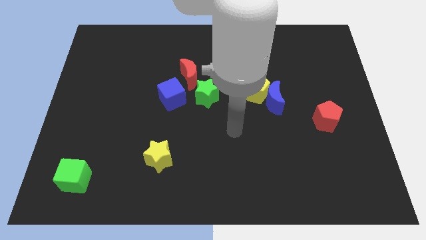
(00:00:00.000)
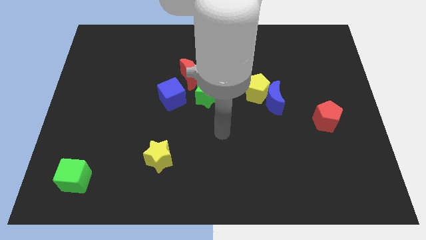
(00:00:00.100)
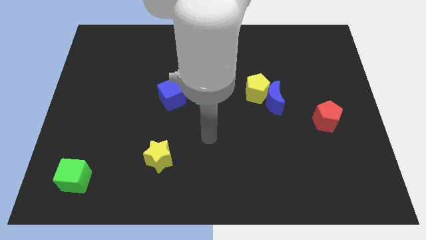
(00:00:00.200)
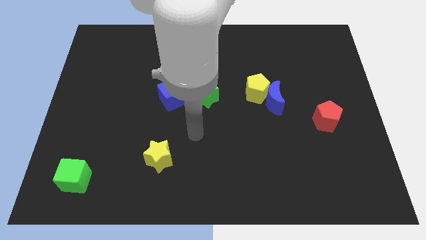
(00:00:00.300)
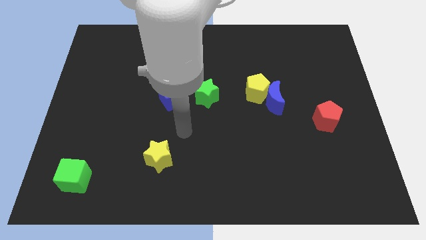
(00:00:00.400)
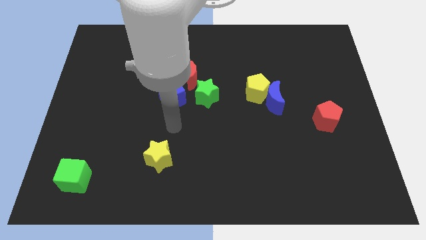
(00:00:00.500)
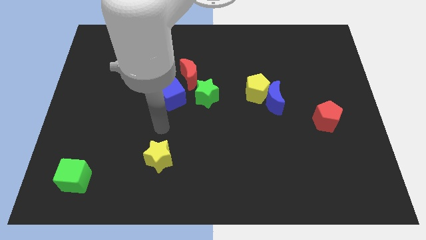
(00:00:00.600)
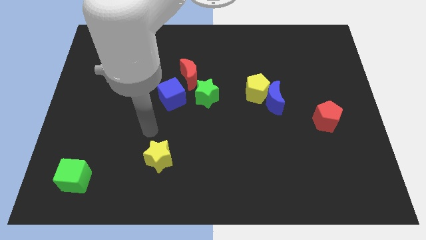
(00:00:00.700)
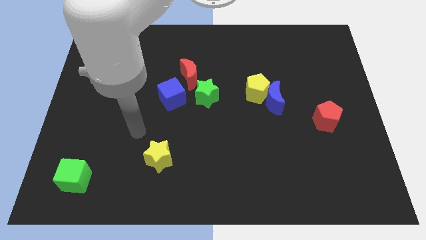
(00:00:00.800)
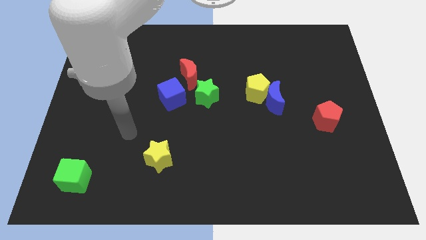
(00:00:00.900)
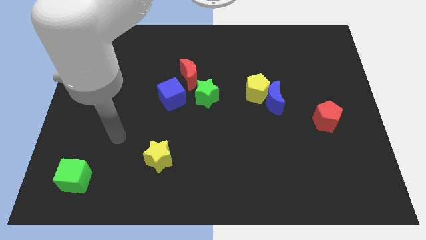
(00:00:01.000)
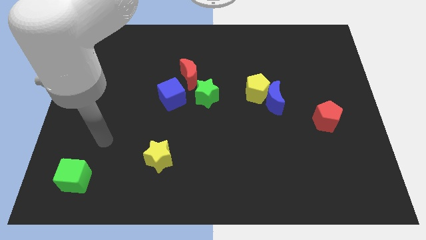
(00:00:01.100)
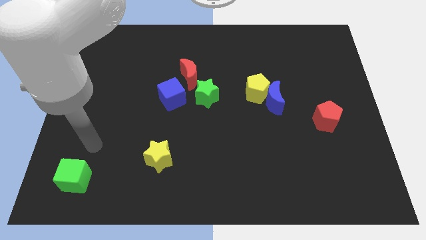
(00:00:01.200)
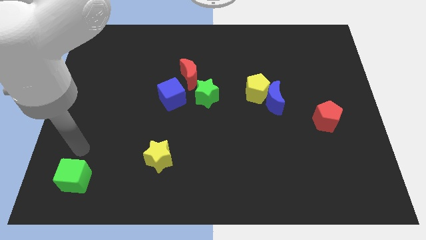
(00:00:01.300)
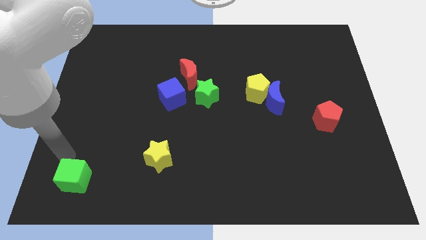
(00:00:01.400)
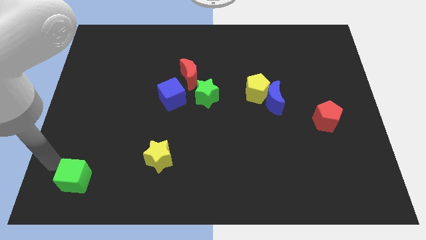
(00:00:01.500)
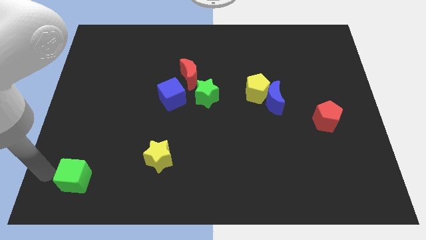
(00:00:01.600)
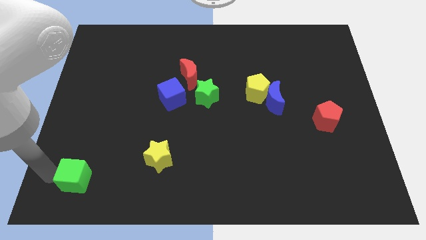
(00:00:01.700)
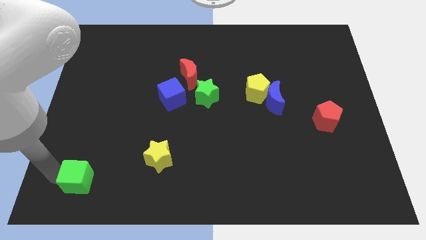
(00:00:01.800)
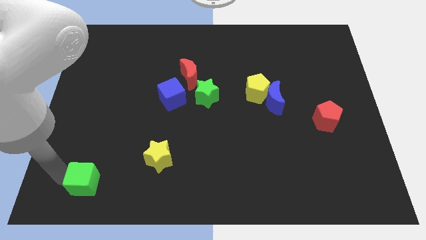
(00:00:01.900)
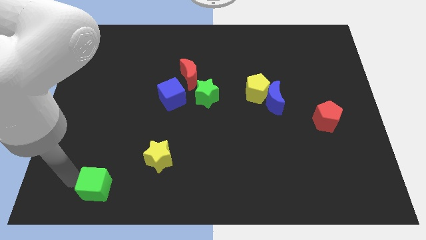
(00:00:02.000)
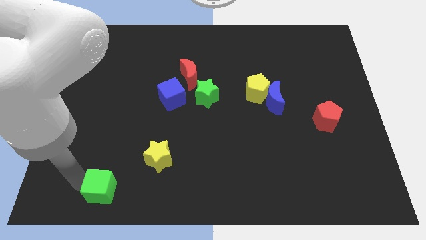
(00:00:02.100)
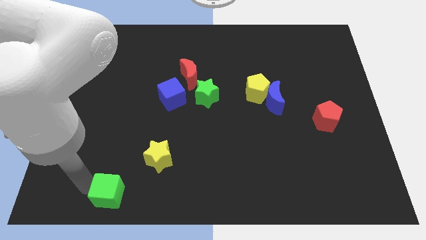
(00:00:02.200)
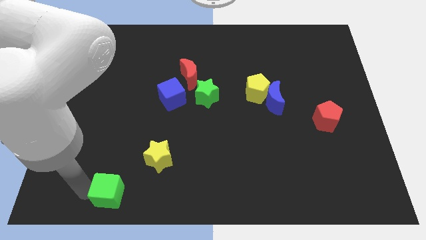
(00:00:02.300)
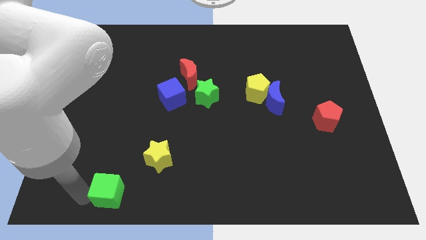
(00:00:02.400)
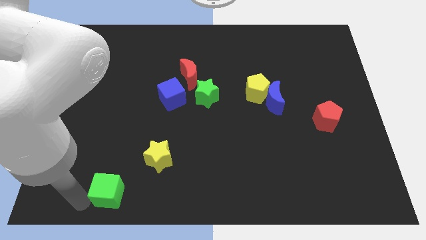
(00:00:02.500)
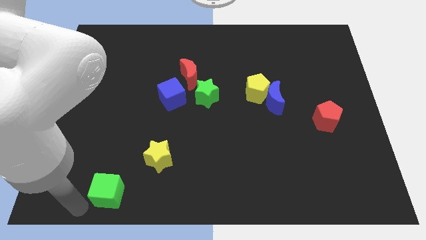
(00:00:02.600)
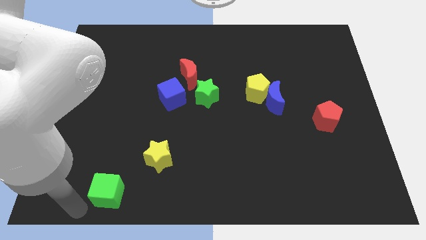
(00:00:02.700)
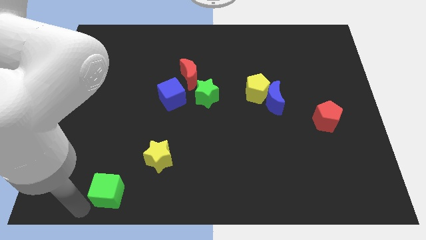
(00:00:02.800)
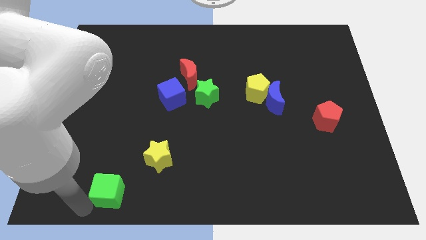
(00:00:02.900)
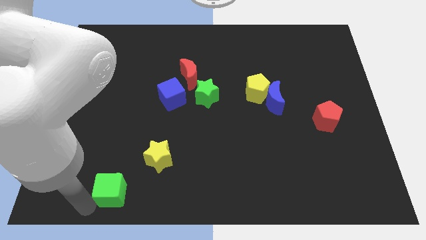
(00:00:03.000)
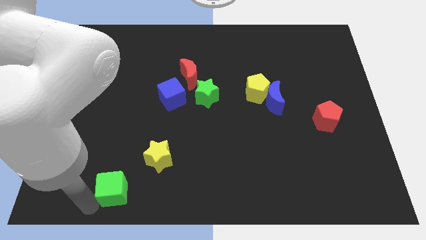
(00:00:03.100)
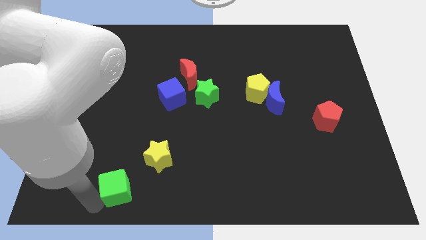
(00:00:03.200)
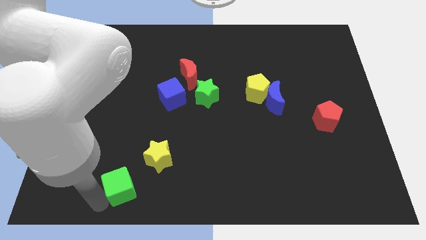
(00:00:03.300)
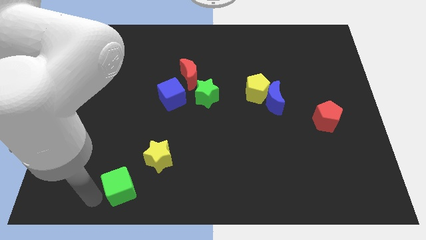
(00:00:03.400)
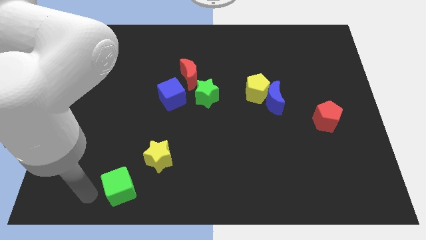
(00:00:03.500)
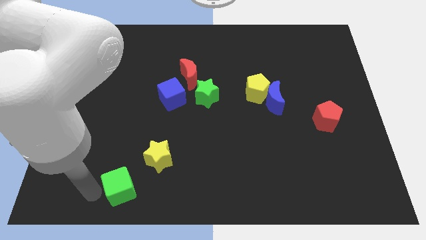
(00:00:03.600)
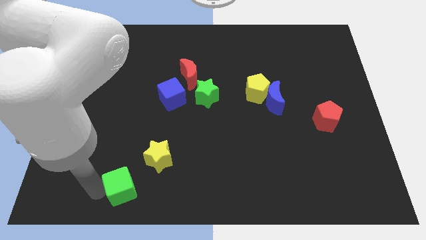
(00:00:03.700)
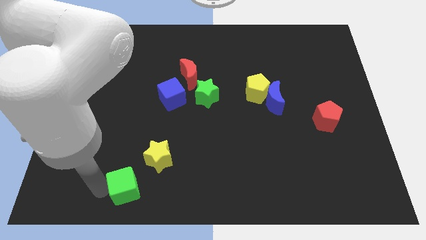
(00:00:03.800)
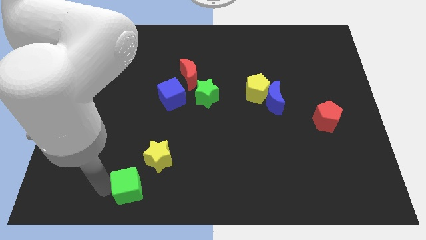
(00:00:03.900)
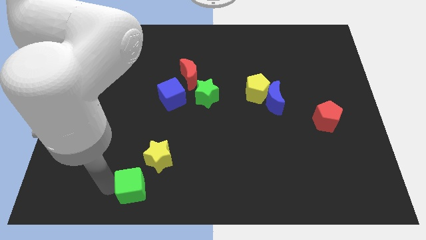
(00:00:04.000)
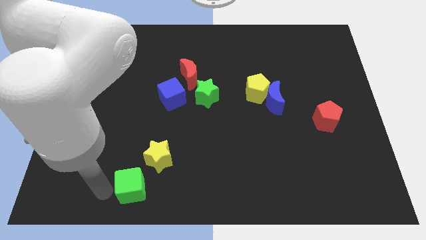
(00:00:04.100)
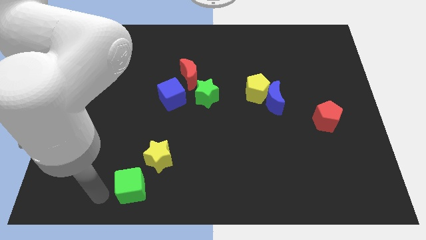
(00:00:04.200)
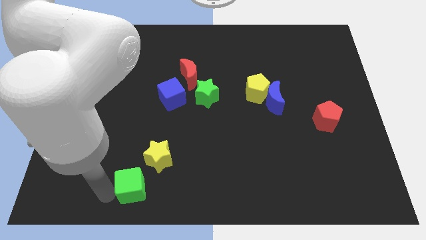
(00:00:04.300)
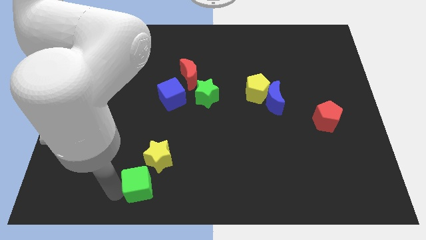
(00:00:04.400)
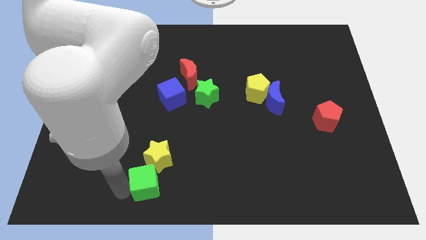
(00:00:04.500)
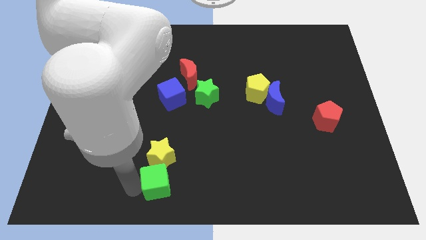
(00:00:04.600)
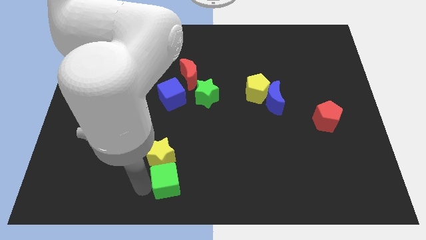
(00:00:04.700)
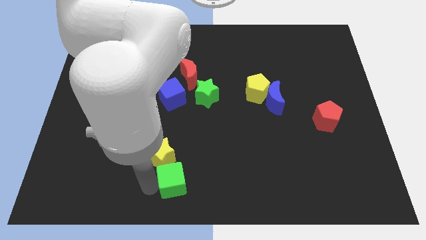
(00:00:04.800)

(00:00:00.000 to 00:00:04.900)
push the green cube right

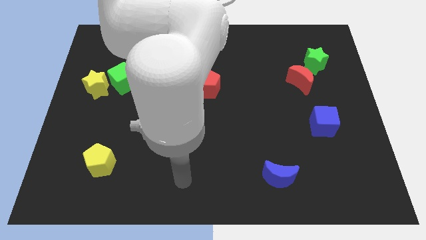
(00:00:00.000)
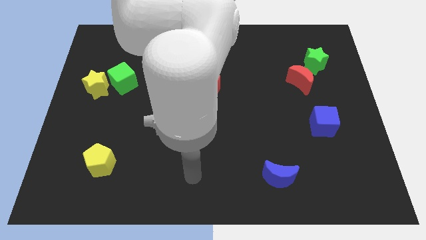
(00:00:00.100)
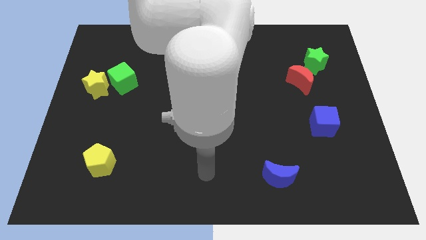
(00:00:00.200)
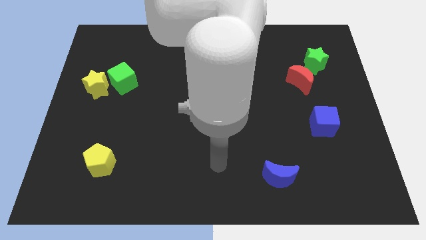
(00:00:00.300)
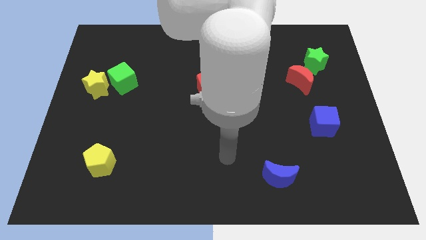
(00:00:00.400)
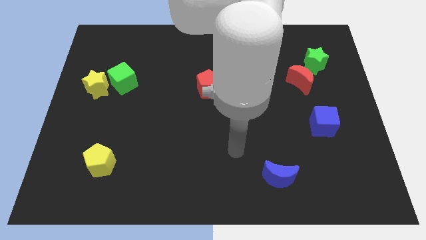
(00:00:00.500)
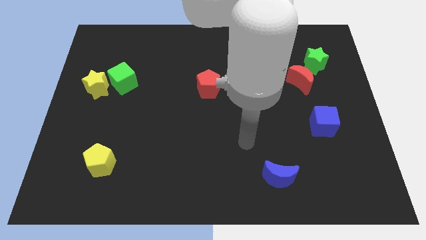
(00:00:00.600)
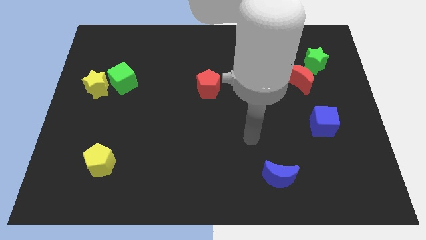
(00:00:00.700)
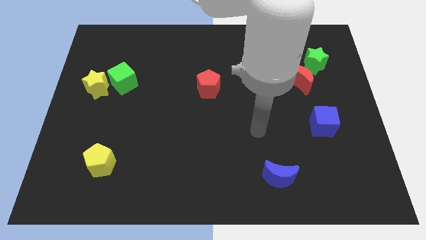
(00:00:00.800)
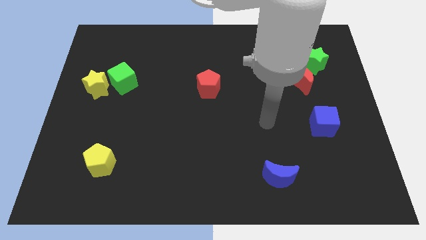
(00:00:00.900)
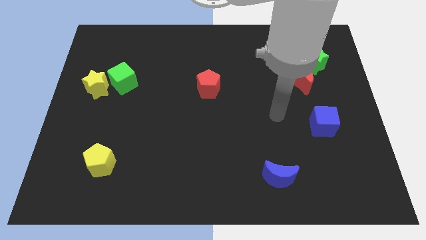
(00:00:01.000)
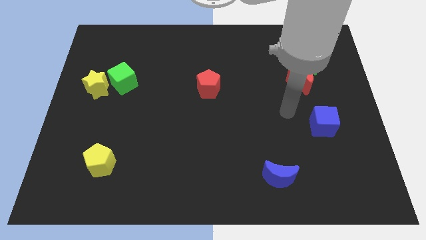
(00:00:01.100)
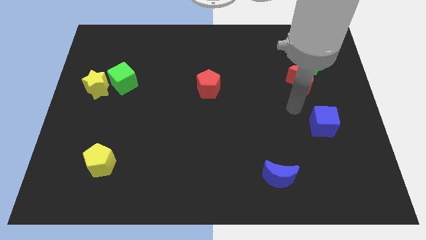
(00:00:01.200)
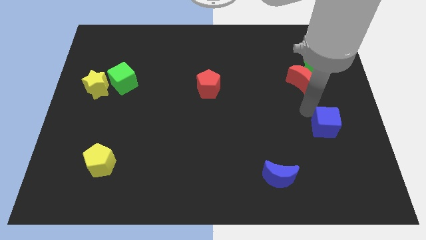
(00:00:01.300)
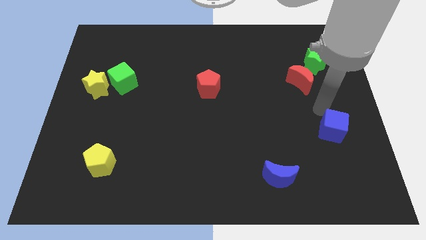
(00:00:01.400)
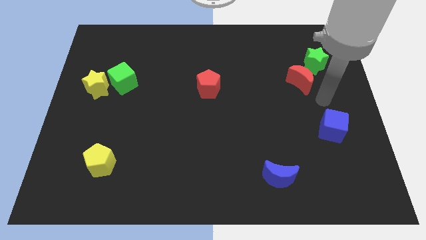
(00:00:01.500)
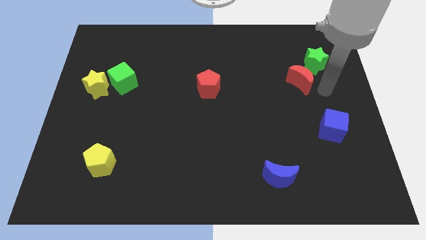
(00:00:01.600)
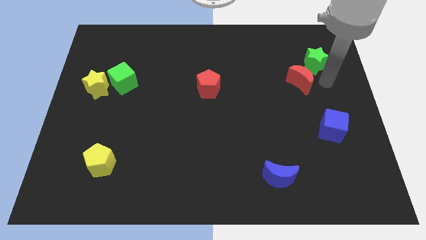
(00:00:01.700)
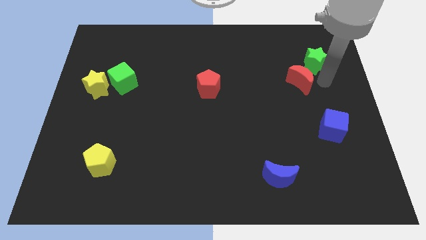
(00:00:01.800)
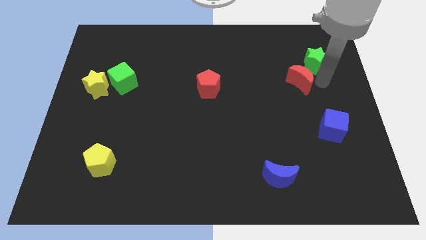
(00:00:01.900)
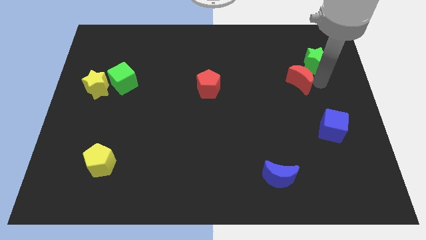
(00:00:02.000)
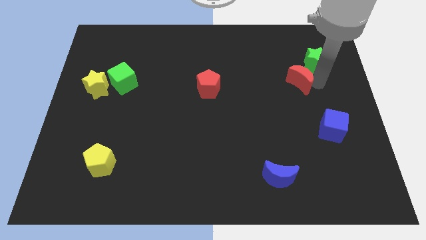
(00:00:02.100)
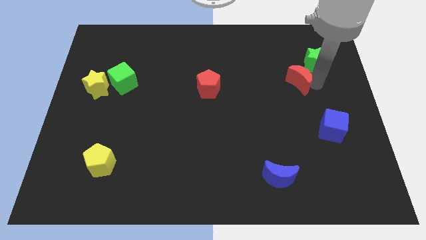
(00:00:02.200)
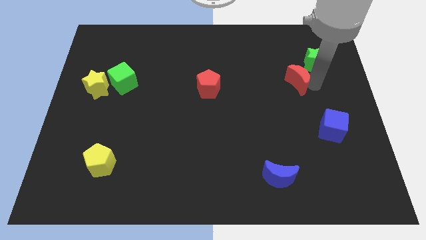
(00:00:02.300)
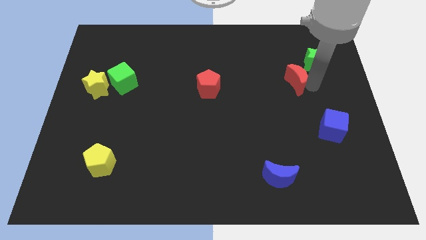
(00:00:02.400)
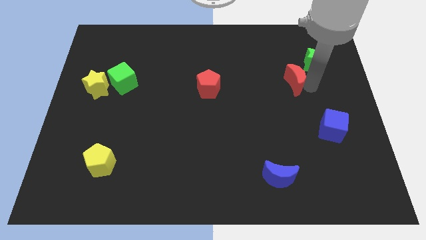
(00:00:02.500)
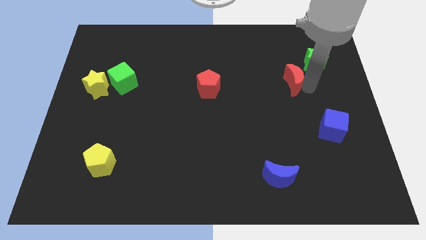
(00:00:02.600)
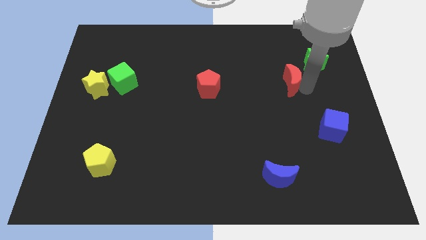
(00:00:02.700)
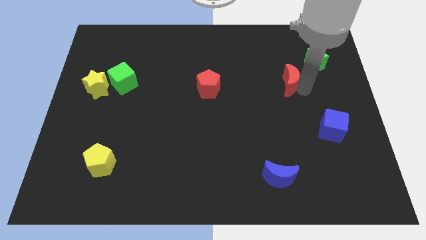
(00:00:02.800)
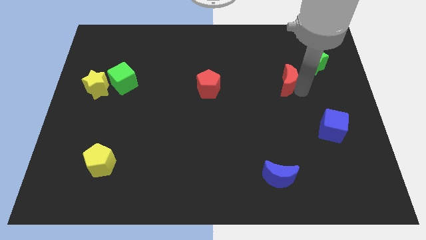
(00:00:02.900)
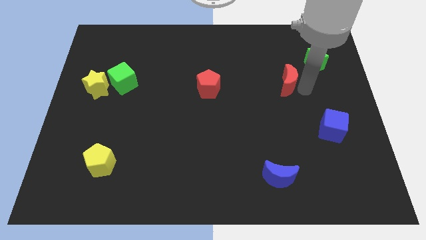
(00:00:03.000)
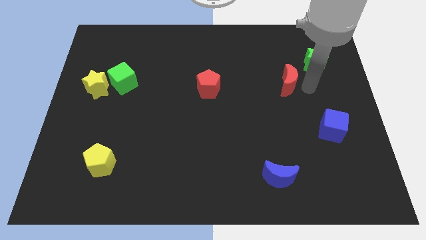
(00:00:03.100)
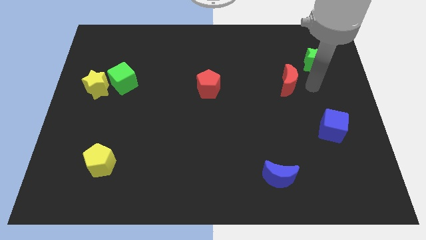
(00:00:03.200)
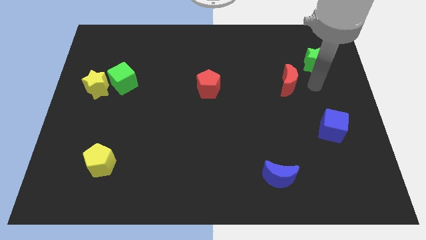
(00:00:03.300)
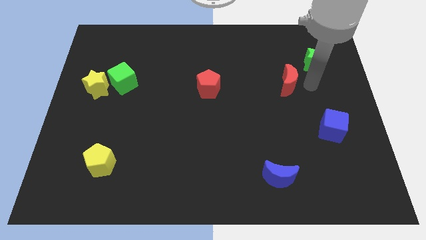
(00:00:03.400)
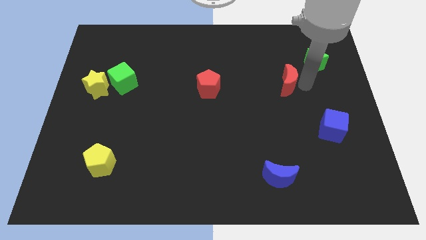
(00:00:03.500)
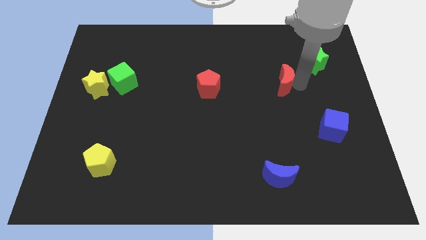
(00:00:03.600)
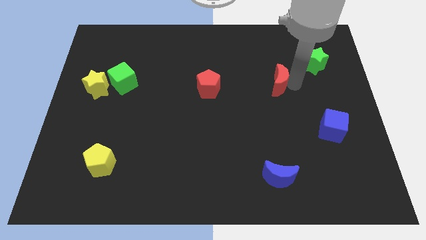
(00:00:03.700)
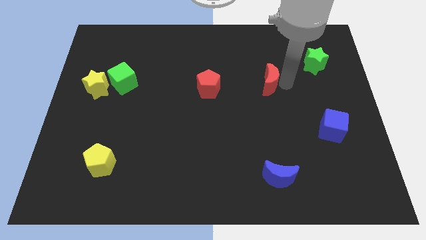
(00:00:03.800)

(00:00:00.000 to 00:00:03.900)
slightly push the red moon to the left
